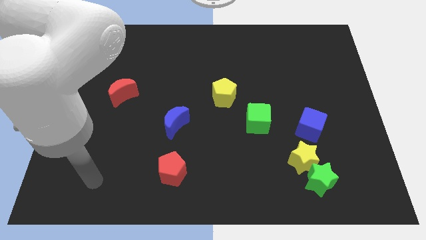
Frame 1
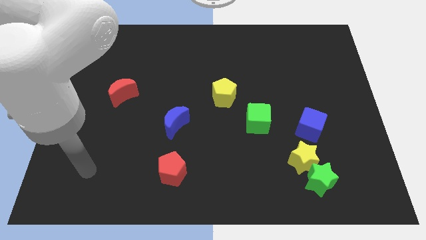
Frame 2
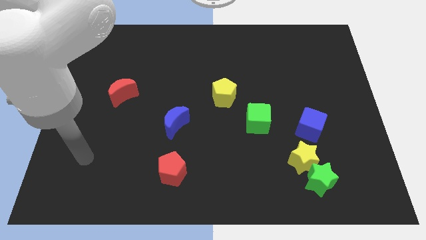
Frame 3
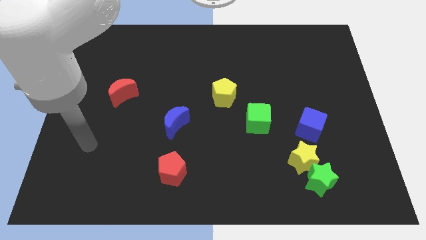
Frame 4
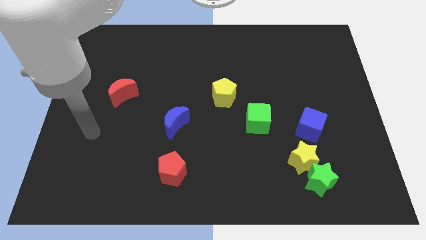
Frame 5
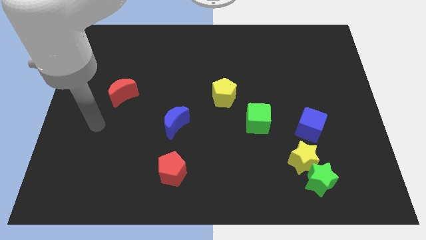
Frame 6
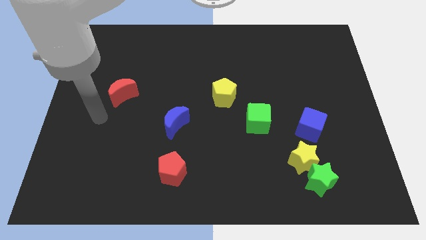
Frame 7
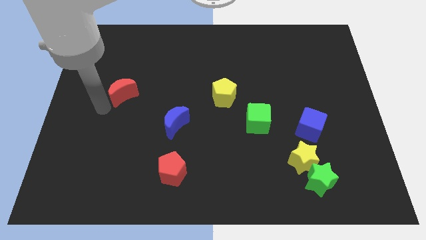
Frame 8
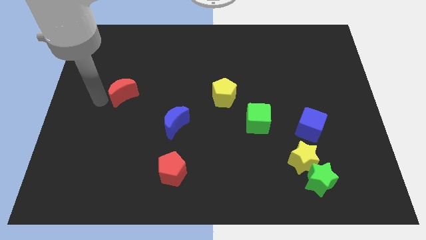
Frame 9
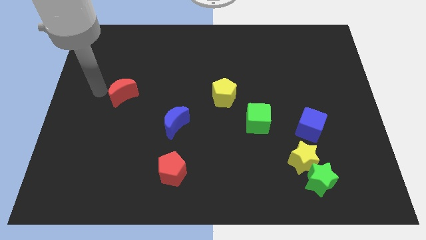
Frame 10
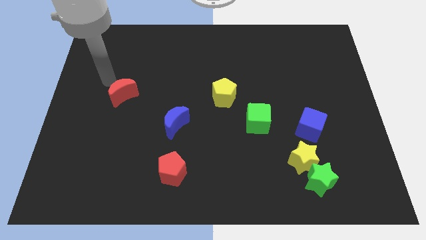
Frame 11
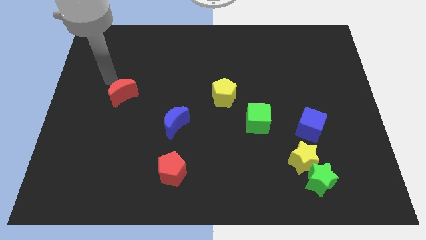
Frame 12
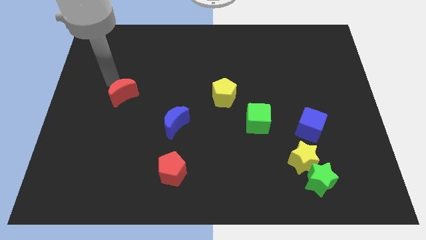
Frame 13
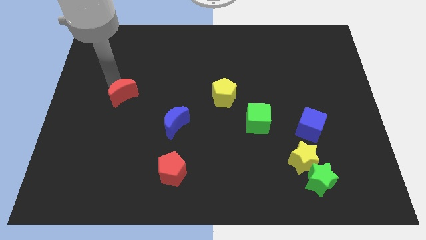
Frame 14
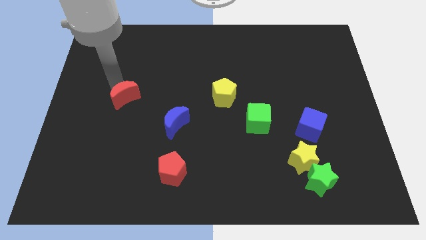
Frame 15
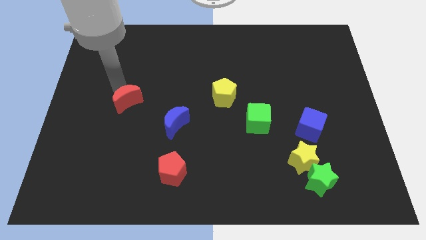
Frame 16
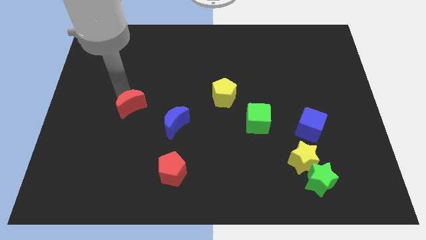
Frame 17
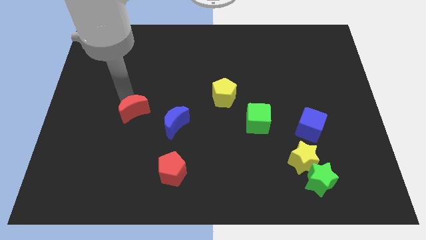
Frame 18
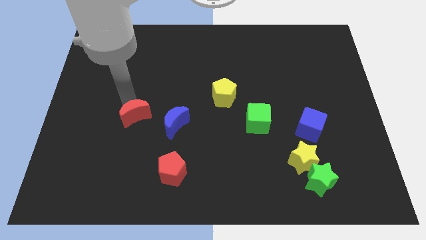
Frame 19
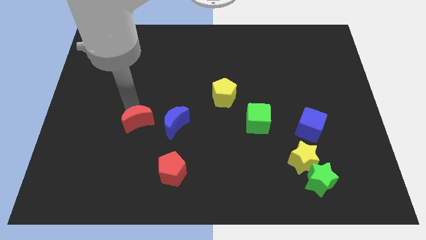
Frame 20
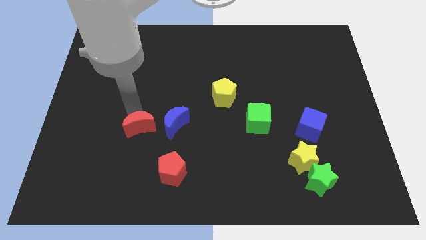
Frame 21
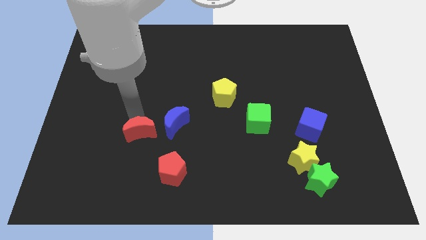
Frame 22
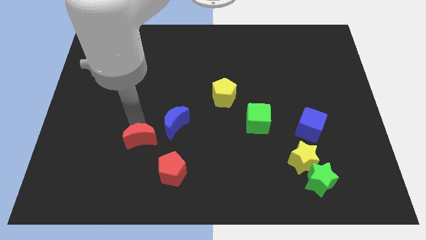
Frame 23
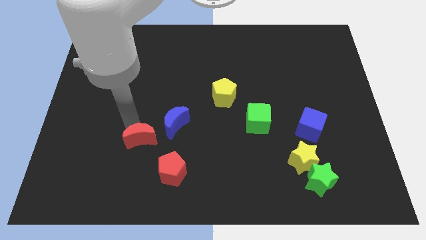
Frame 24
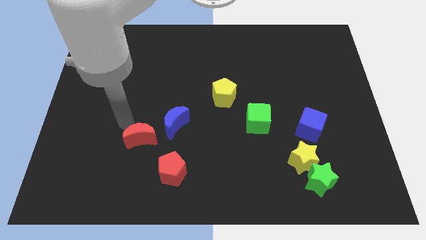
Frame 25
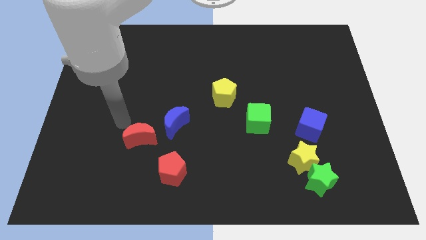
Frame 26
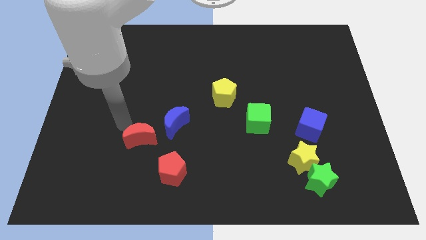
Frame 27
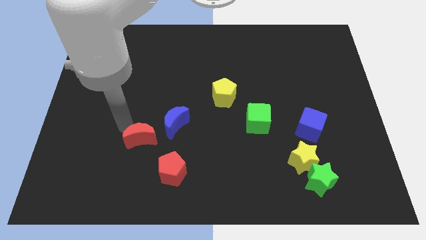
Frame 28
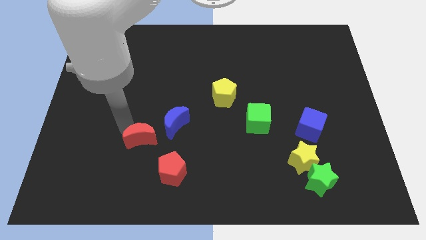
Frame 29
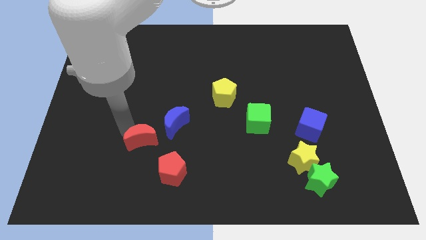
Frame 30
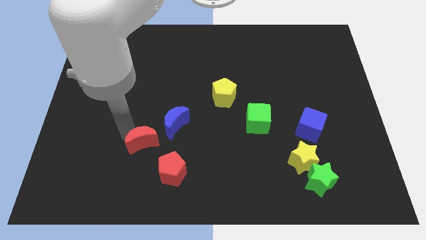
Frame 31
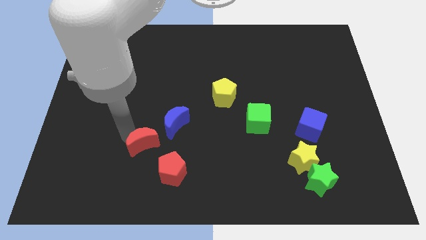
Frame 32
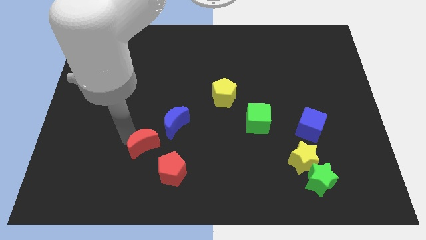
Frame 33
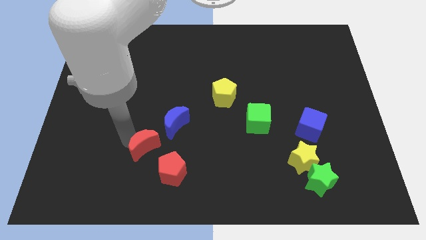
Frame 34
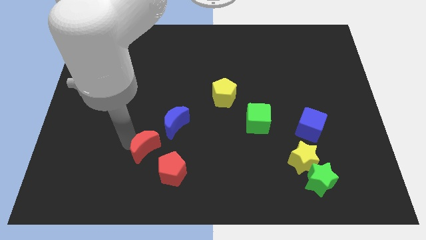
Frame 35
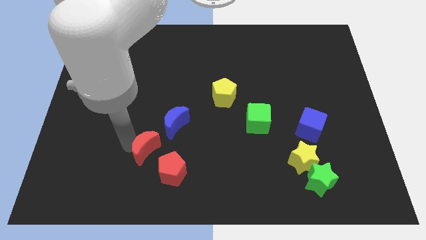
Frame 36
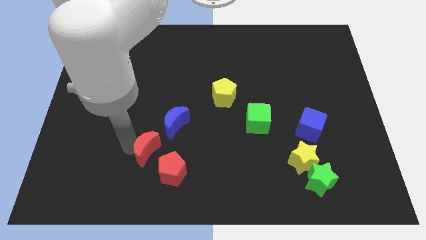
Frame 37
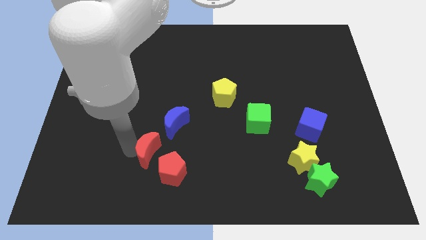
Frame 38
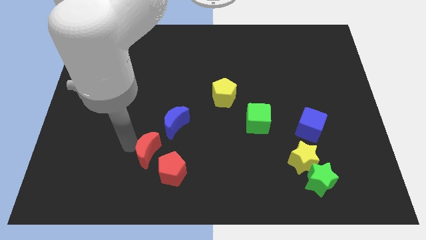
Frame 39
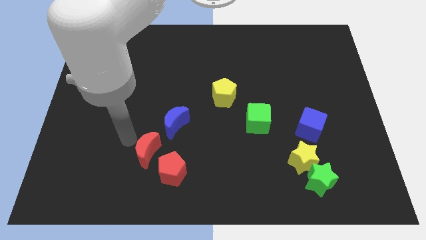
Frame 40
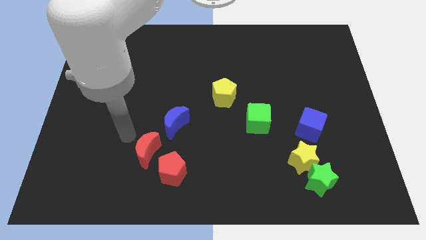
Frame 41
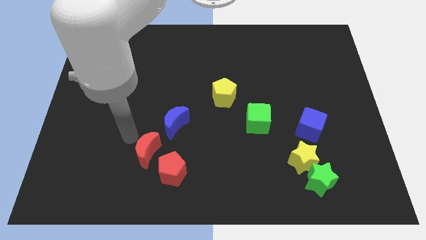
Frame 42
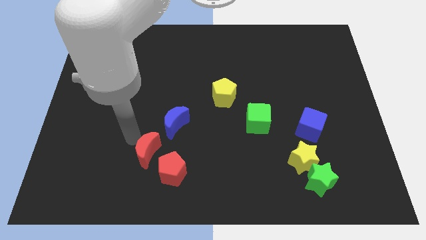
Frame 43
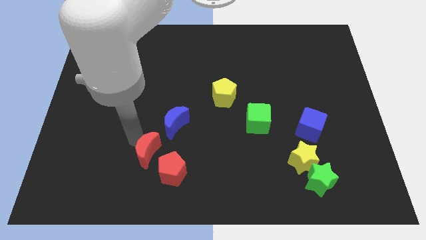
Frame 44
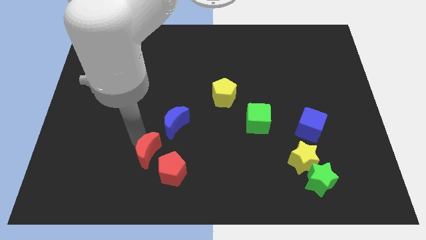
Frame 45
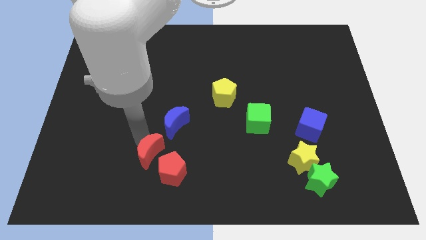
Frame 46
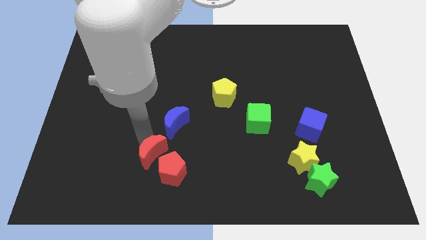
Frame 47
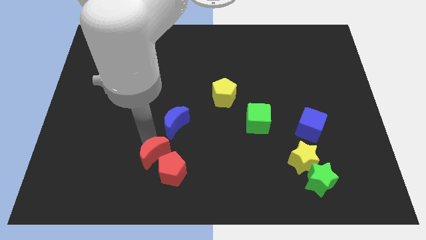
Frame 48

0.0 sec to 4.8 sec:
put the red moon close to the red pentagon

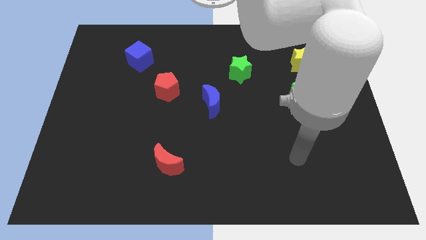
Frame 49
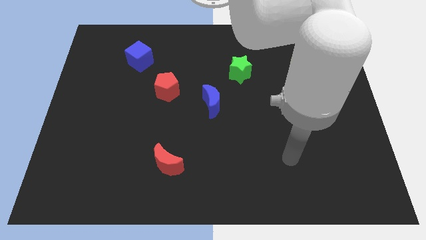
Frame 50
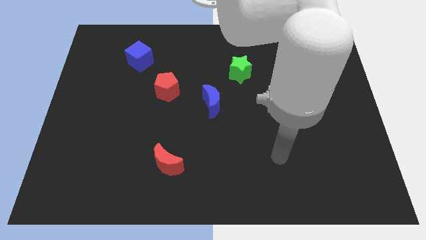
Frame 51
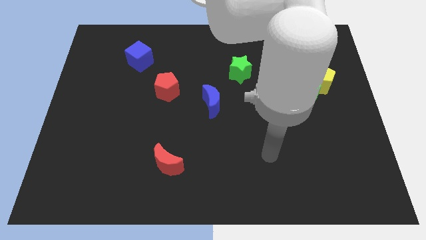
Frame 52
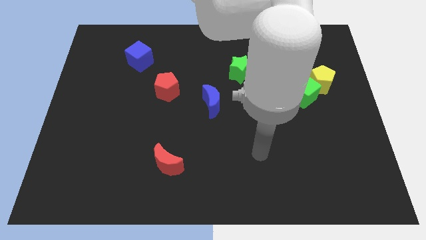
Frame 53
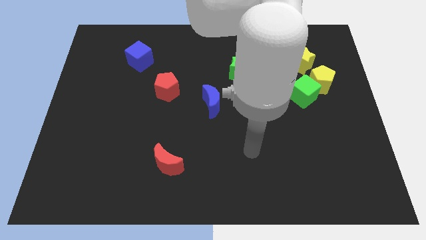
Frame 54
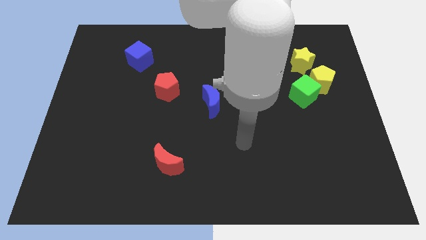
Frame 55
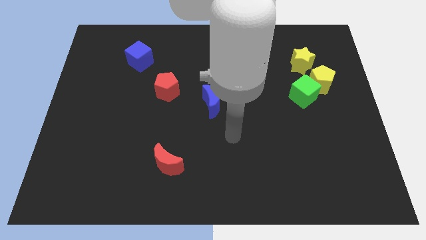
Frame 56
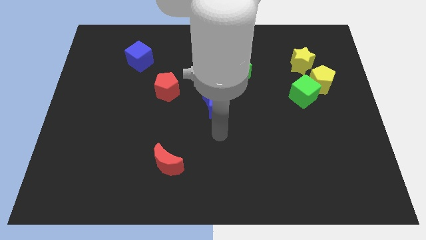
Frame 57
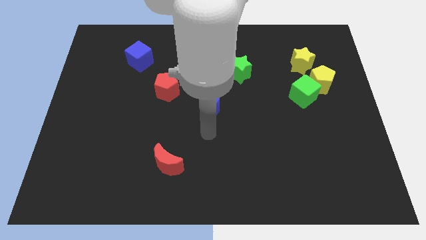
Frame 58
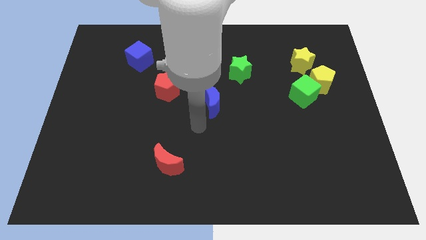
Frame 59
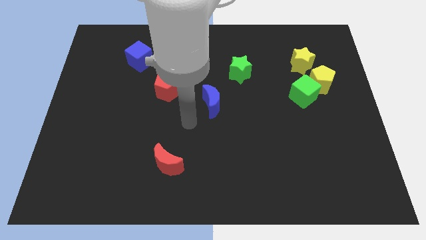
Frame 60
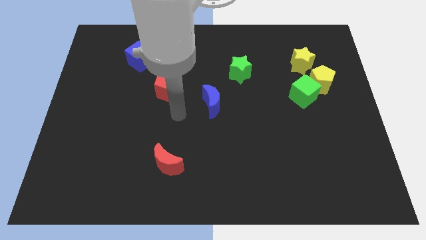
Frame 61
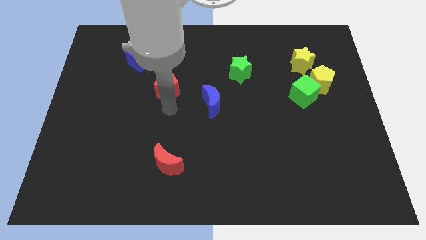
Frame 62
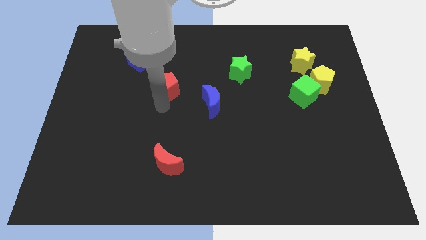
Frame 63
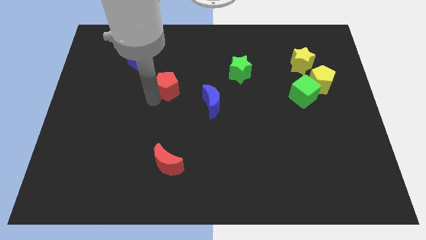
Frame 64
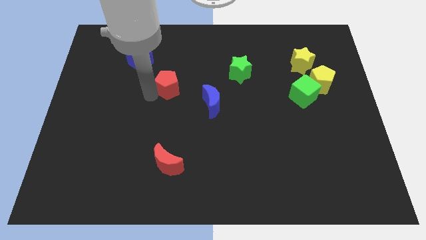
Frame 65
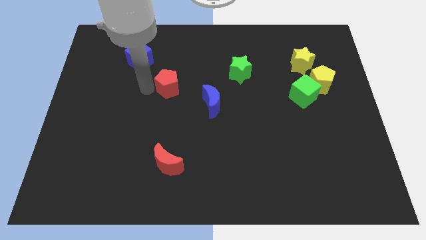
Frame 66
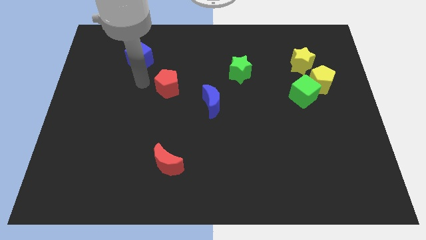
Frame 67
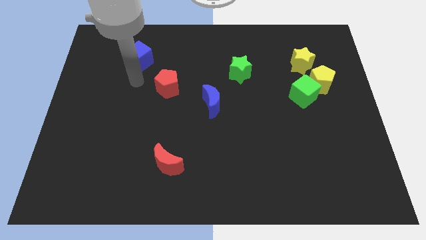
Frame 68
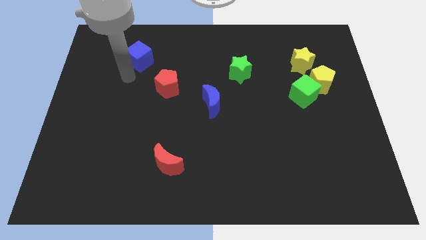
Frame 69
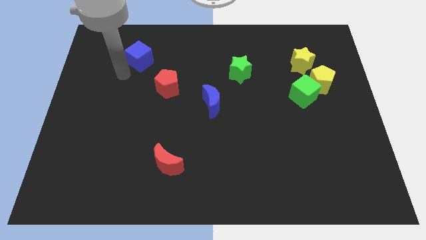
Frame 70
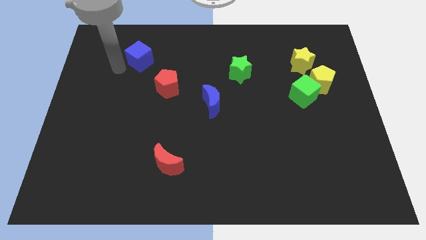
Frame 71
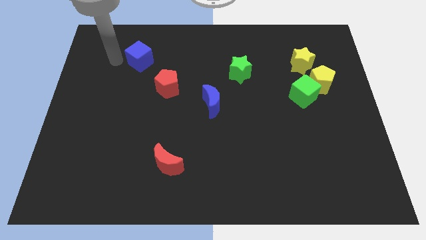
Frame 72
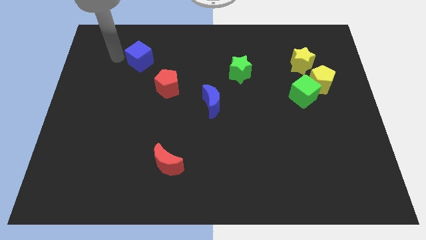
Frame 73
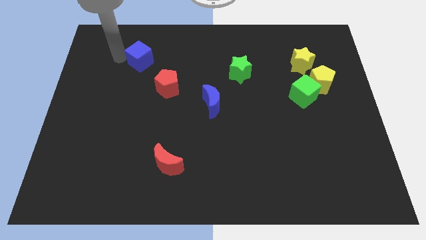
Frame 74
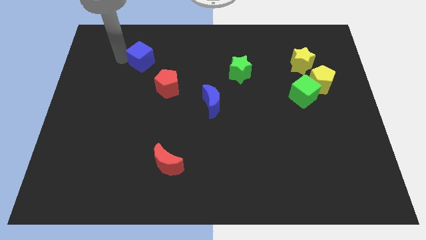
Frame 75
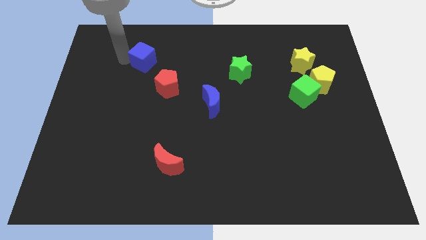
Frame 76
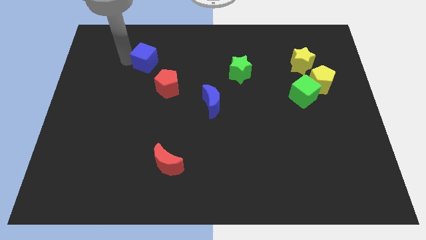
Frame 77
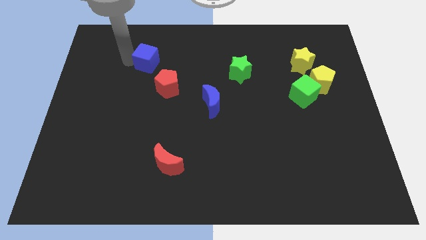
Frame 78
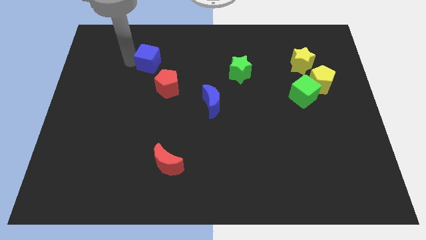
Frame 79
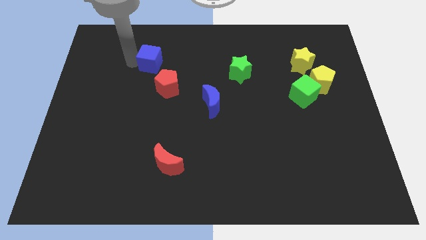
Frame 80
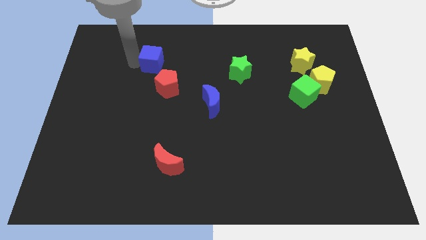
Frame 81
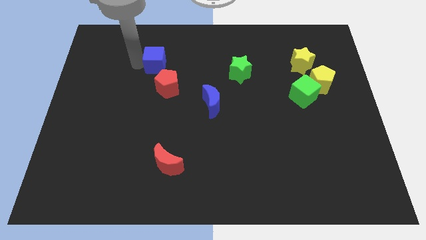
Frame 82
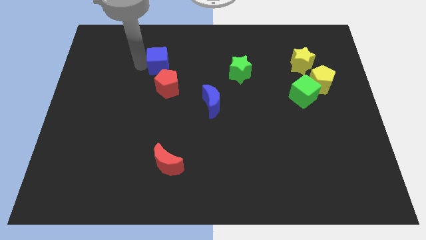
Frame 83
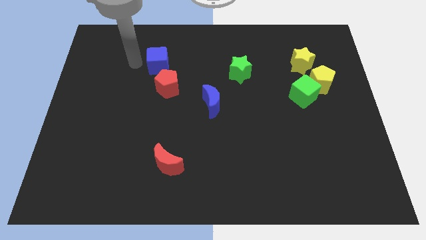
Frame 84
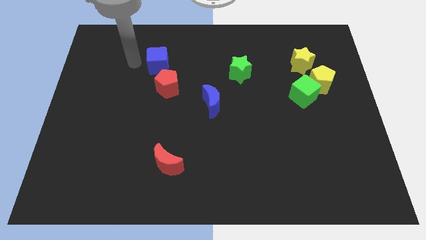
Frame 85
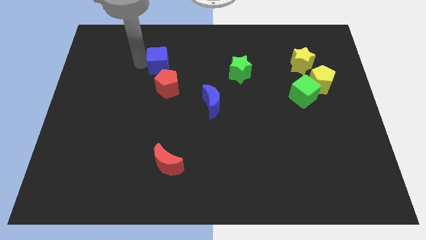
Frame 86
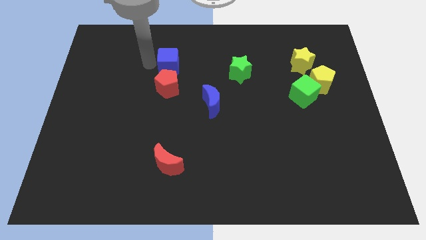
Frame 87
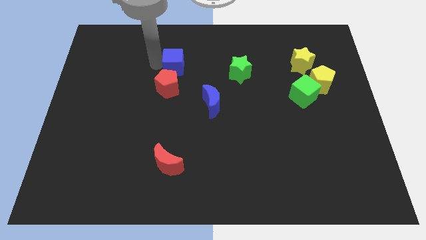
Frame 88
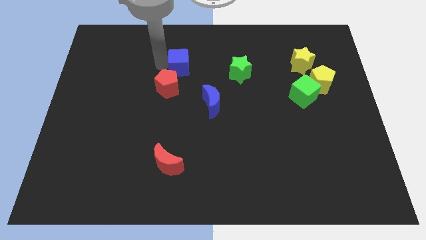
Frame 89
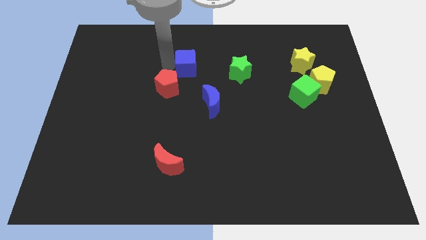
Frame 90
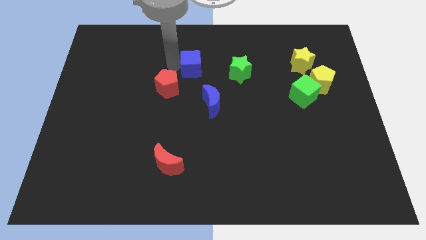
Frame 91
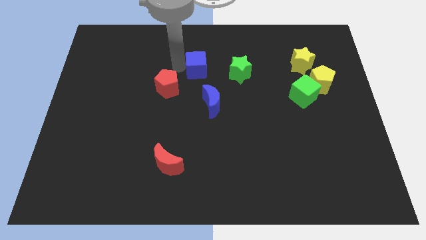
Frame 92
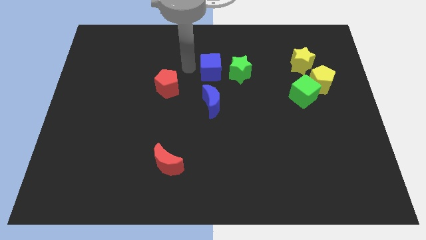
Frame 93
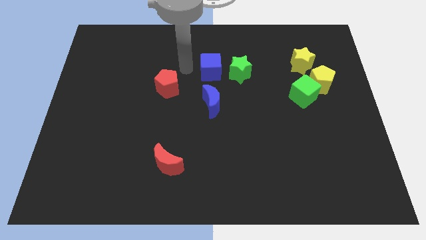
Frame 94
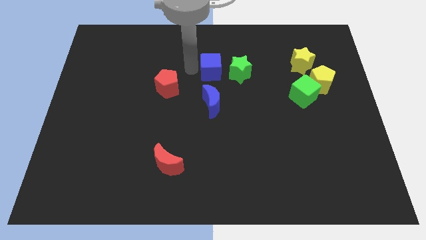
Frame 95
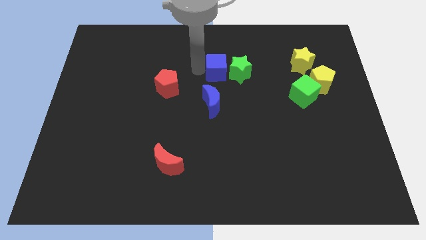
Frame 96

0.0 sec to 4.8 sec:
slide the blue cube next to the green star
